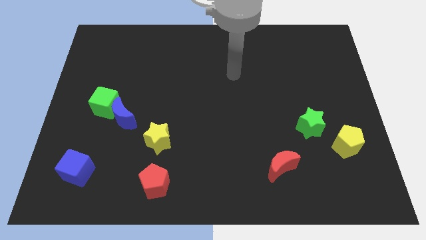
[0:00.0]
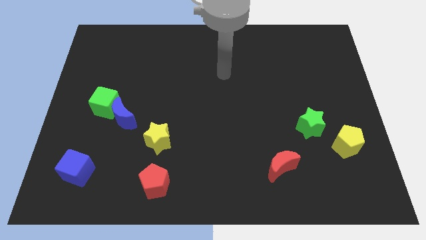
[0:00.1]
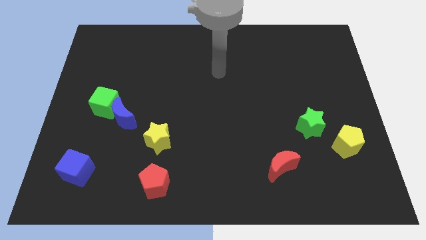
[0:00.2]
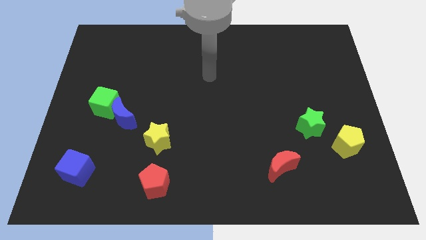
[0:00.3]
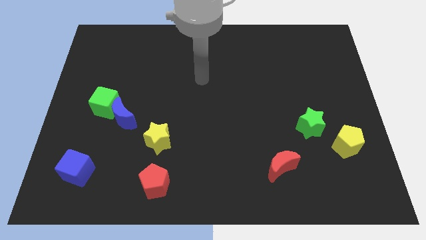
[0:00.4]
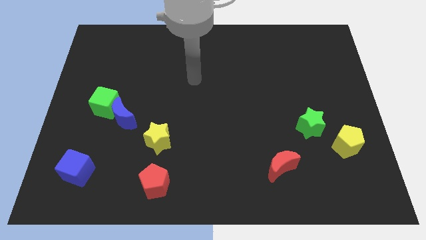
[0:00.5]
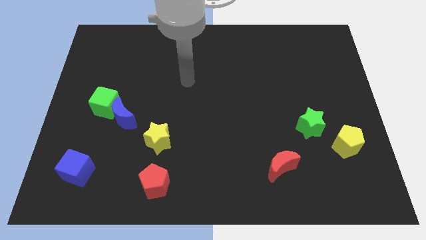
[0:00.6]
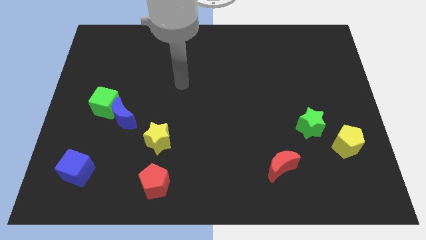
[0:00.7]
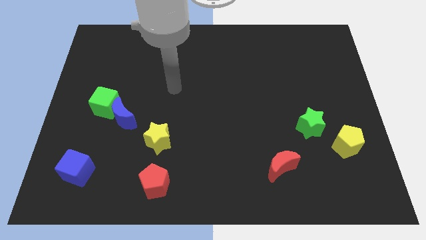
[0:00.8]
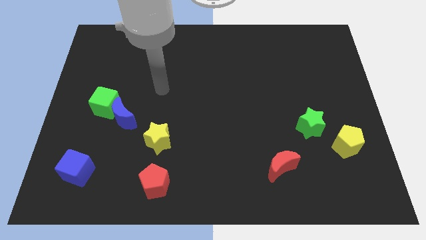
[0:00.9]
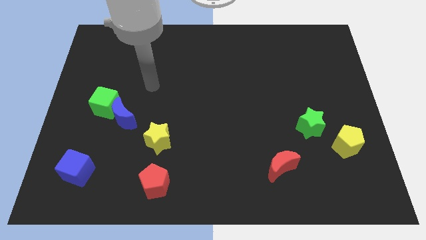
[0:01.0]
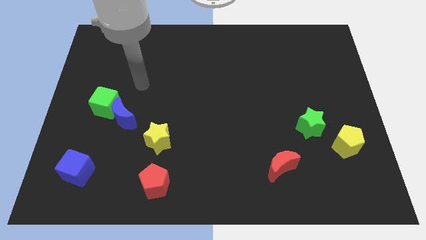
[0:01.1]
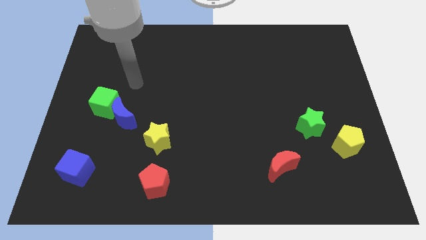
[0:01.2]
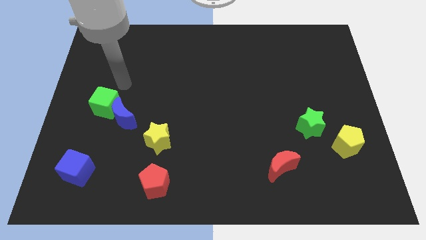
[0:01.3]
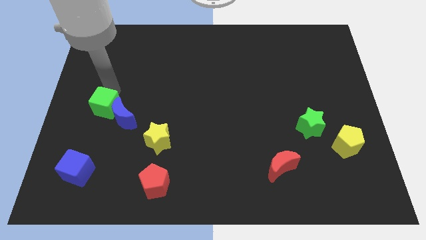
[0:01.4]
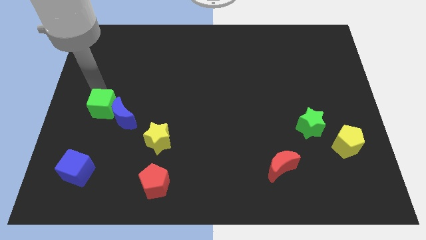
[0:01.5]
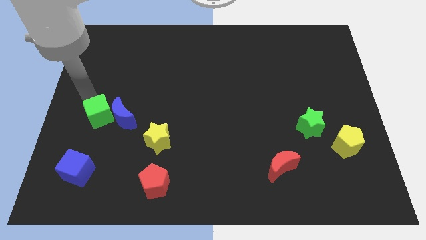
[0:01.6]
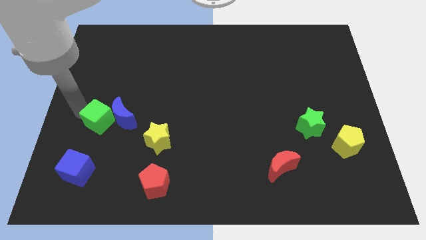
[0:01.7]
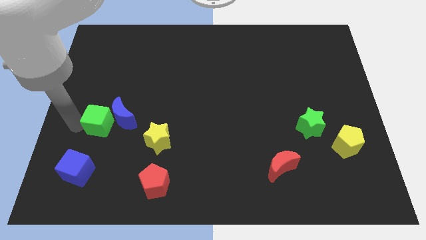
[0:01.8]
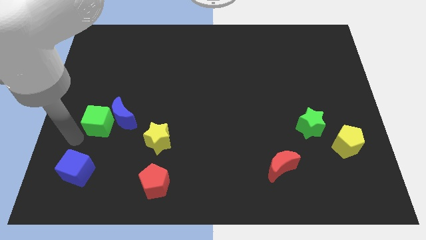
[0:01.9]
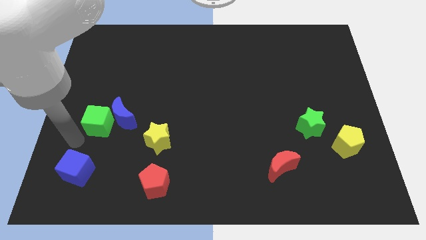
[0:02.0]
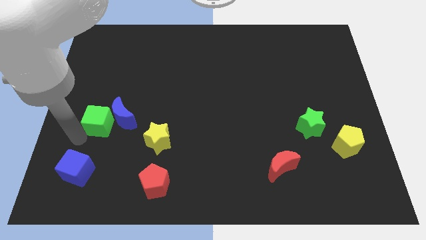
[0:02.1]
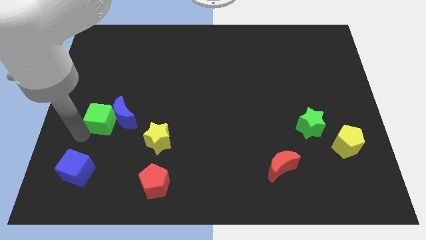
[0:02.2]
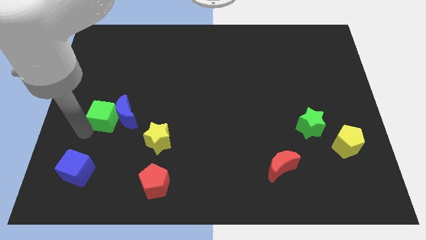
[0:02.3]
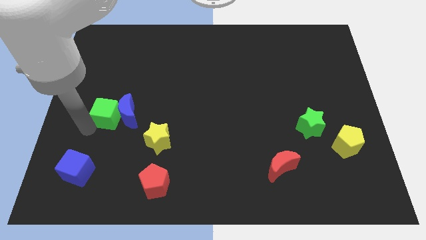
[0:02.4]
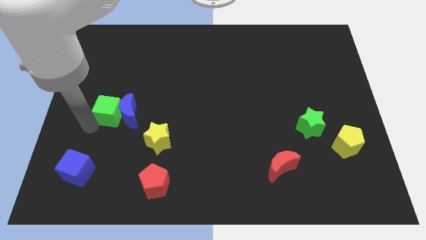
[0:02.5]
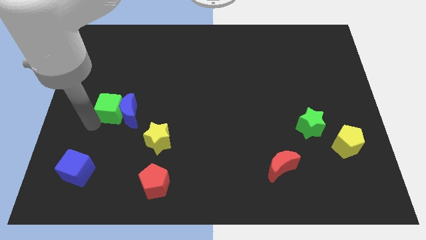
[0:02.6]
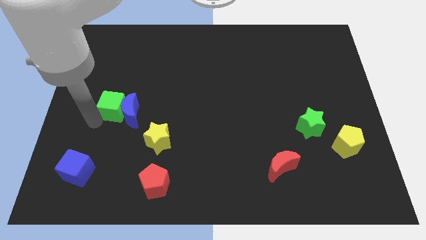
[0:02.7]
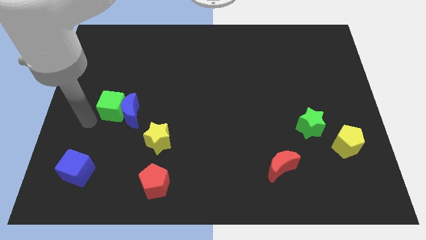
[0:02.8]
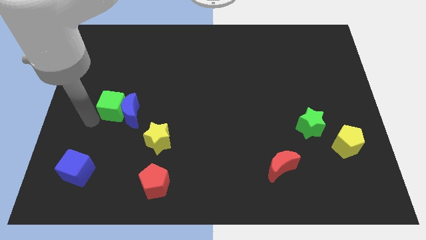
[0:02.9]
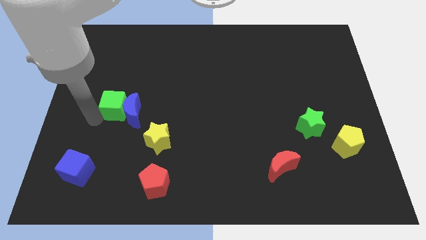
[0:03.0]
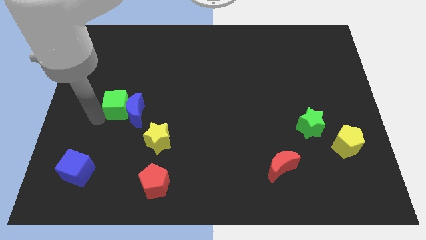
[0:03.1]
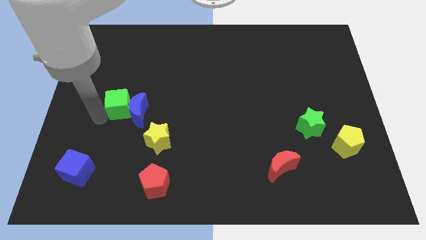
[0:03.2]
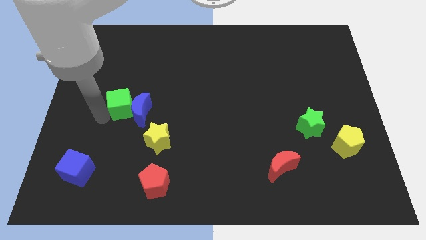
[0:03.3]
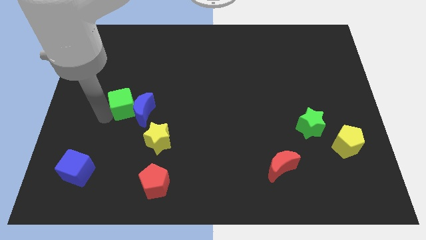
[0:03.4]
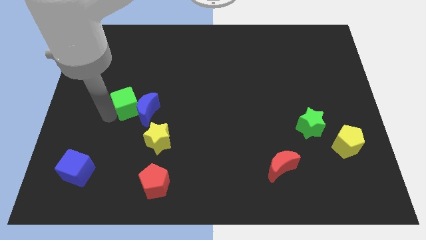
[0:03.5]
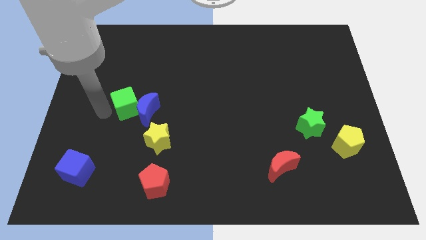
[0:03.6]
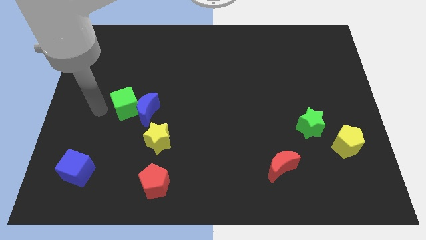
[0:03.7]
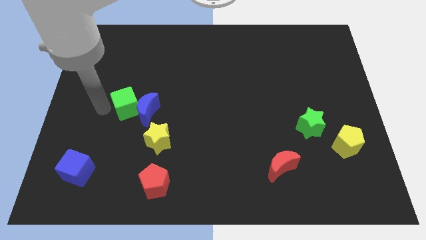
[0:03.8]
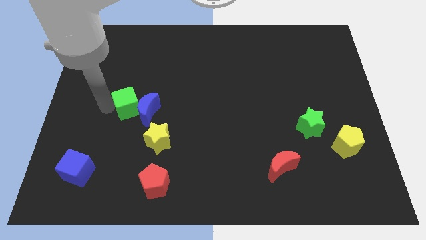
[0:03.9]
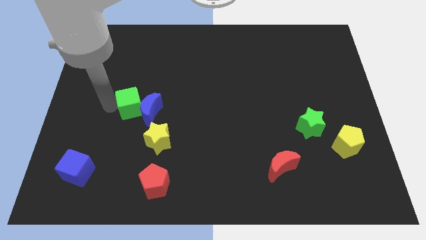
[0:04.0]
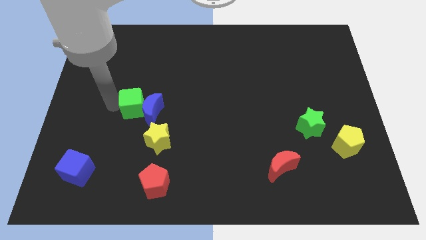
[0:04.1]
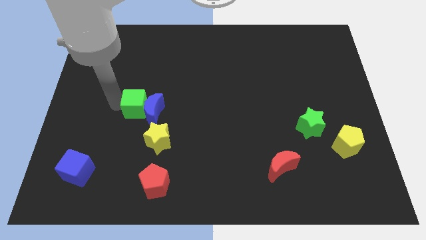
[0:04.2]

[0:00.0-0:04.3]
slightly move the green cube to the right

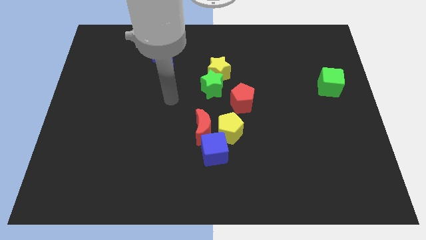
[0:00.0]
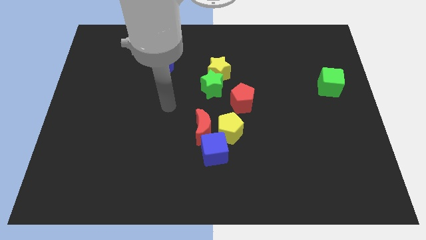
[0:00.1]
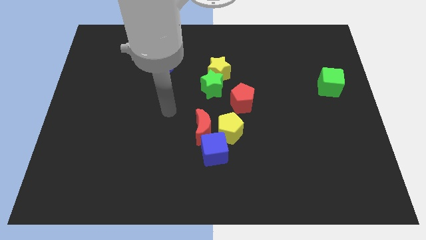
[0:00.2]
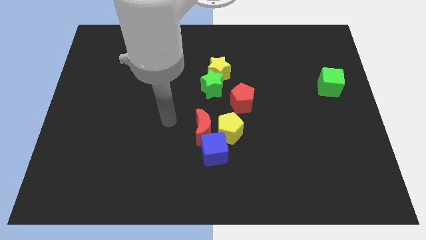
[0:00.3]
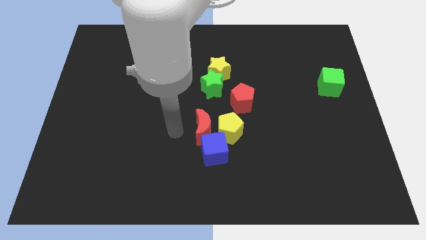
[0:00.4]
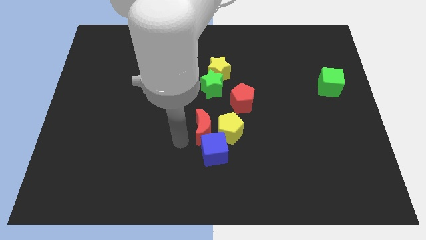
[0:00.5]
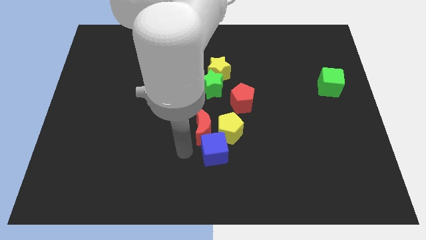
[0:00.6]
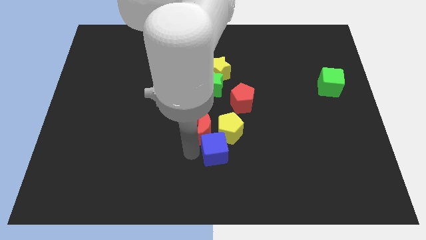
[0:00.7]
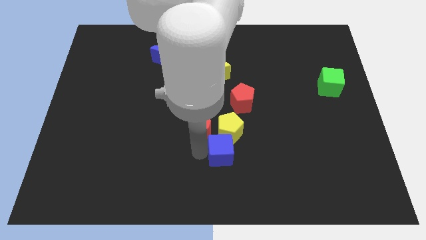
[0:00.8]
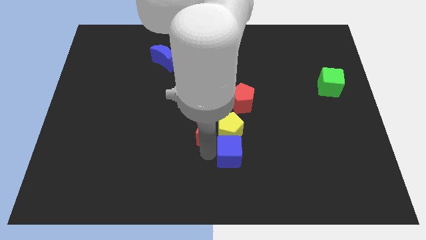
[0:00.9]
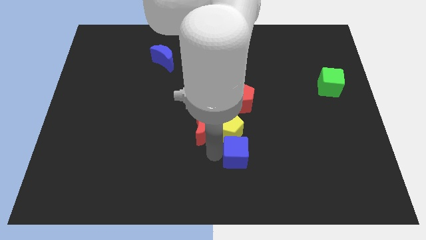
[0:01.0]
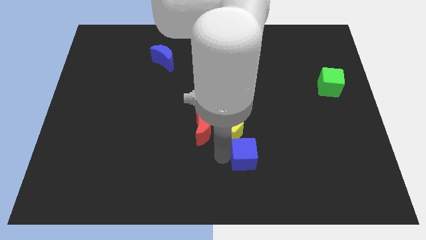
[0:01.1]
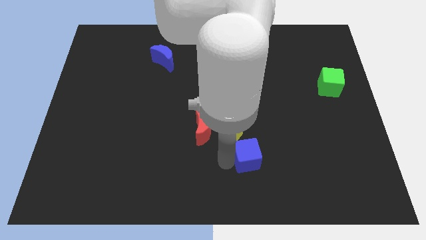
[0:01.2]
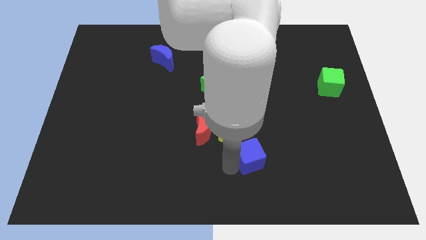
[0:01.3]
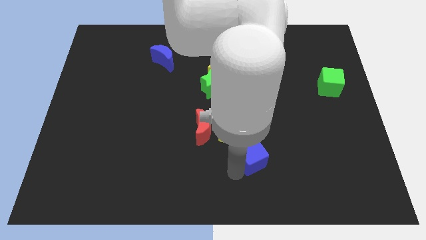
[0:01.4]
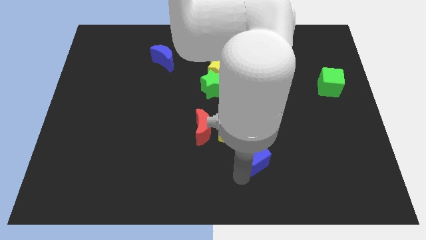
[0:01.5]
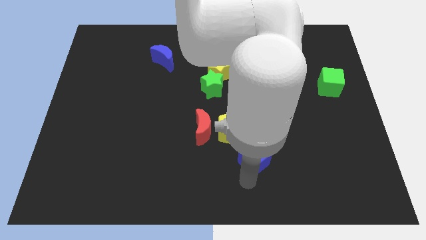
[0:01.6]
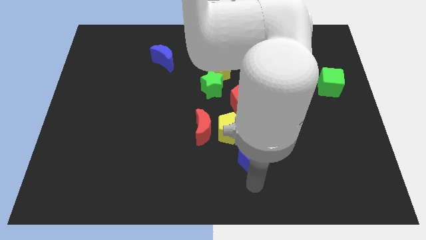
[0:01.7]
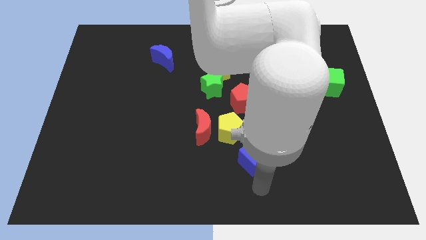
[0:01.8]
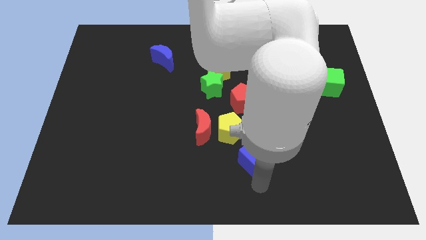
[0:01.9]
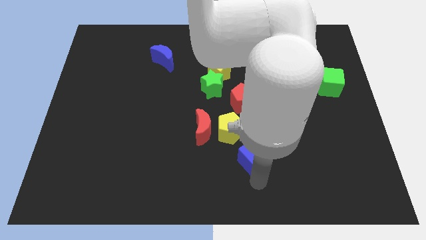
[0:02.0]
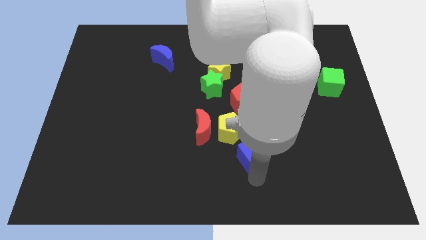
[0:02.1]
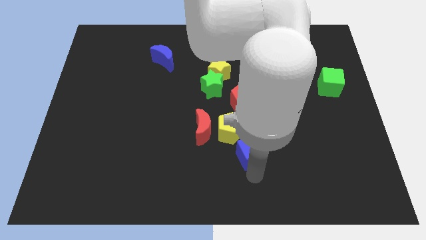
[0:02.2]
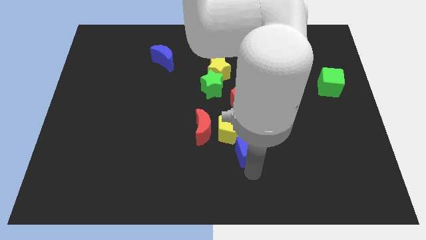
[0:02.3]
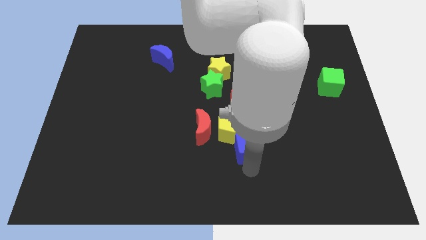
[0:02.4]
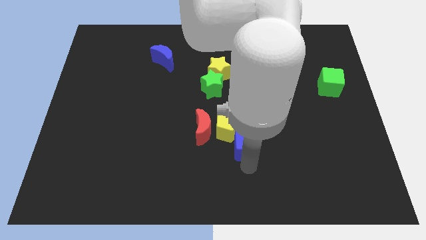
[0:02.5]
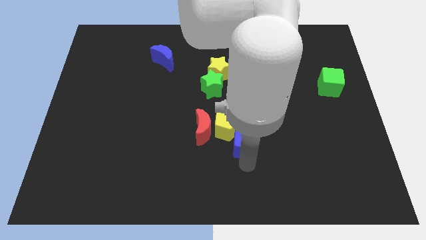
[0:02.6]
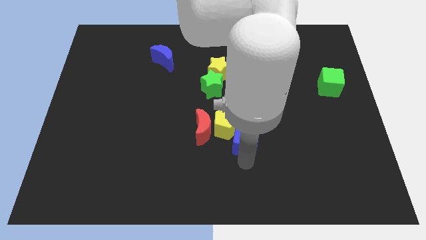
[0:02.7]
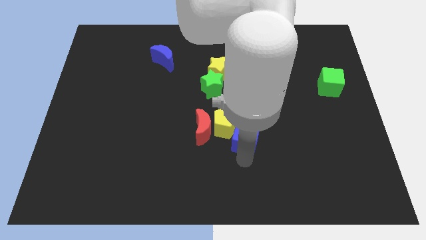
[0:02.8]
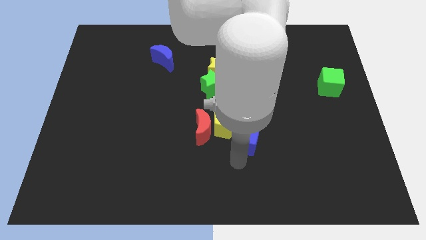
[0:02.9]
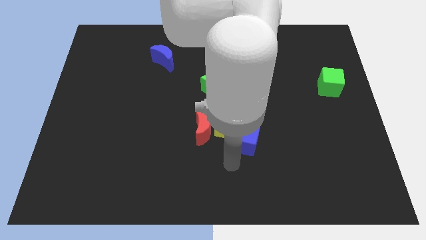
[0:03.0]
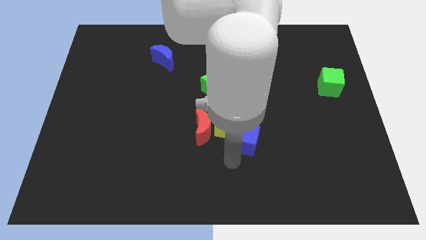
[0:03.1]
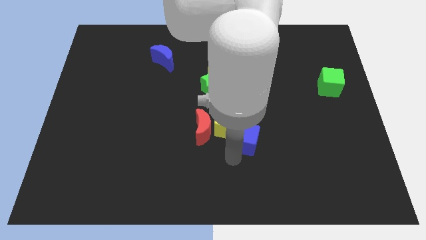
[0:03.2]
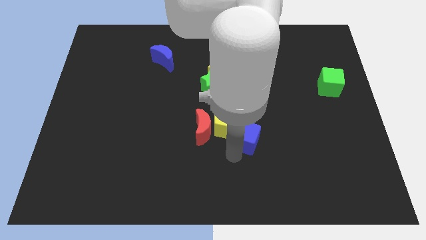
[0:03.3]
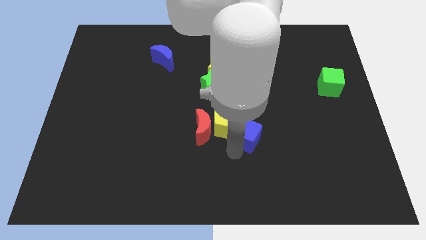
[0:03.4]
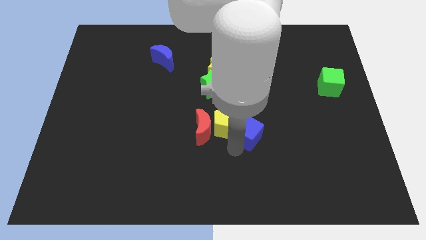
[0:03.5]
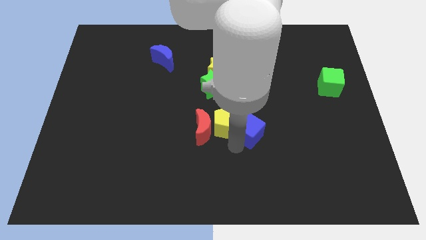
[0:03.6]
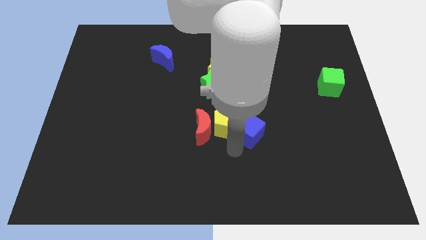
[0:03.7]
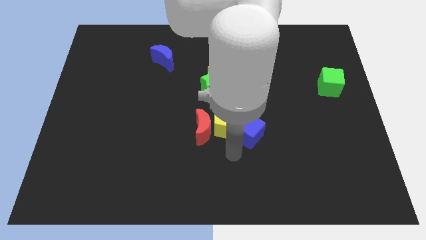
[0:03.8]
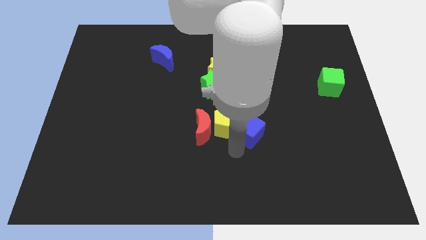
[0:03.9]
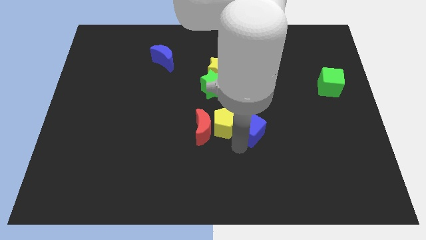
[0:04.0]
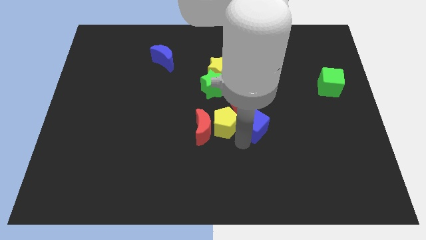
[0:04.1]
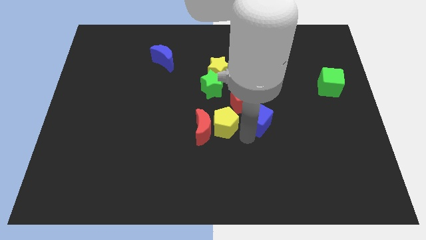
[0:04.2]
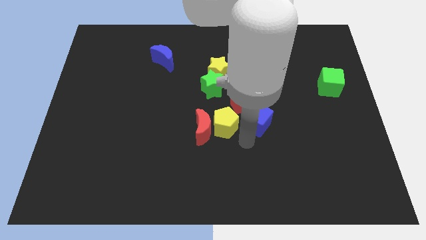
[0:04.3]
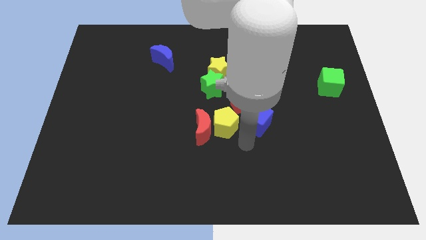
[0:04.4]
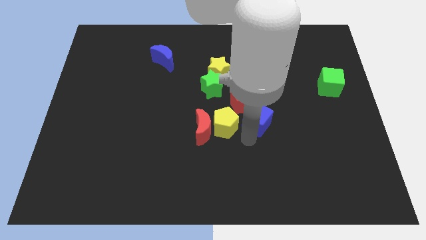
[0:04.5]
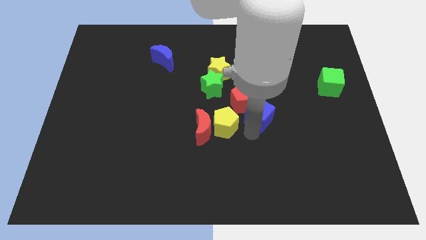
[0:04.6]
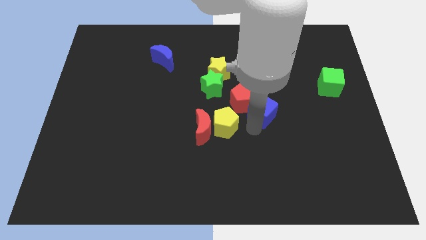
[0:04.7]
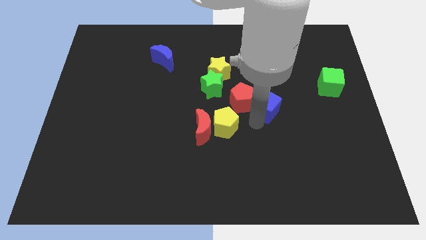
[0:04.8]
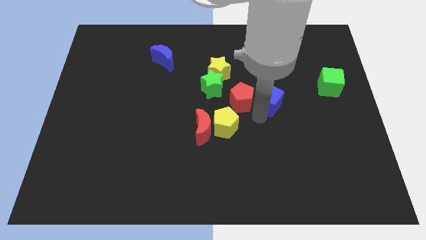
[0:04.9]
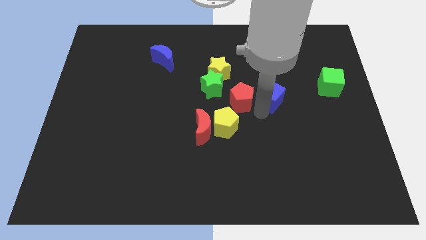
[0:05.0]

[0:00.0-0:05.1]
move the blue cube upwards and then to the right
